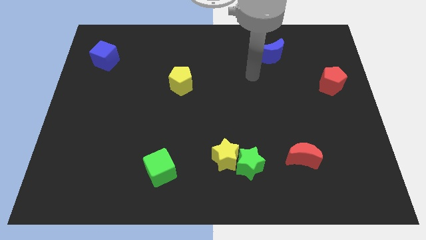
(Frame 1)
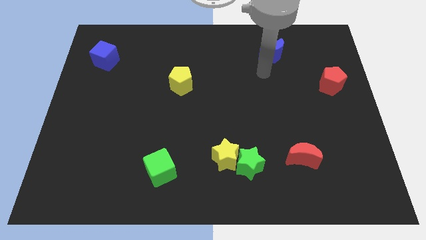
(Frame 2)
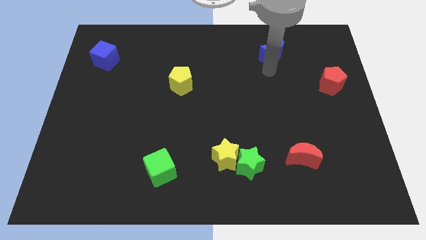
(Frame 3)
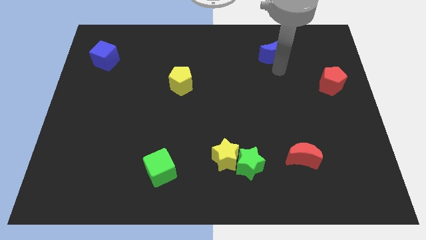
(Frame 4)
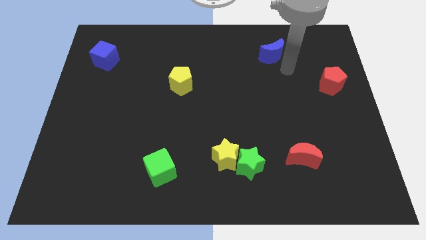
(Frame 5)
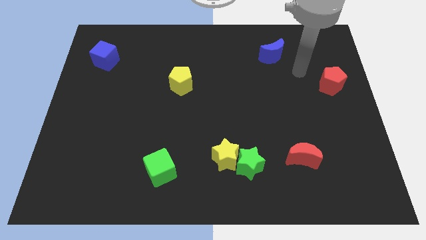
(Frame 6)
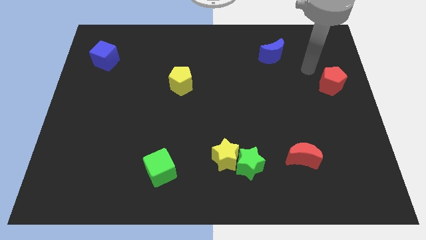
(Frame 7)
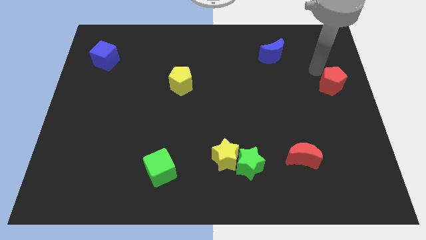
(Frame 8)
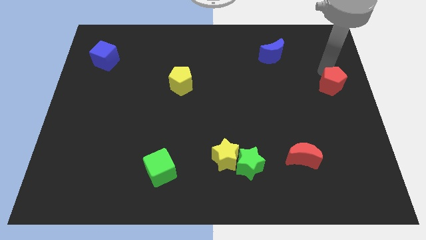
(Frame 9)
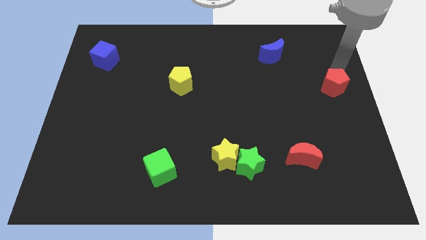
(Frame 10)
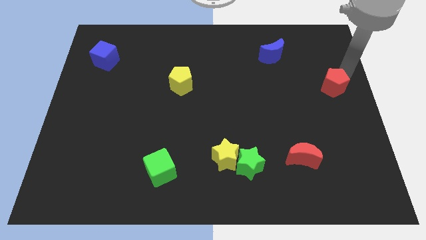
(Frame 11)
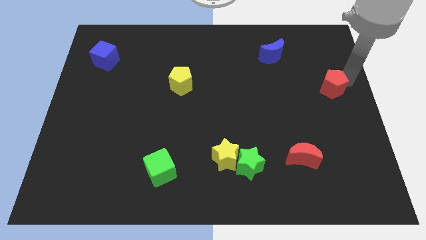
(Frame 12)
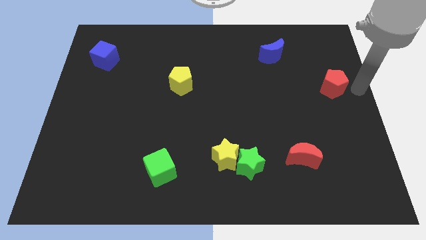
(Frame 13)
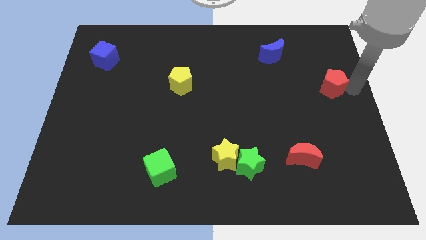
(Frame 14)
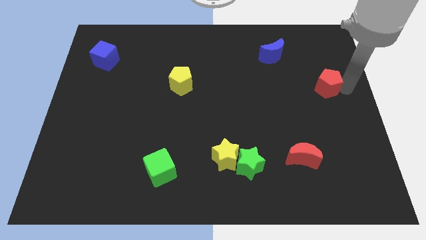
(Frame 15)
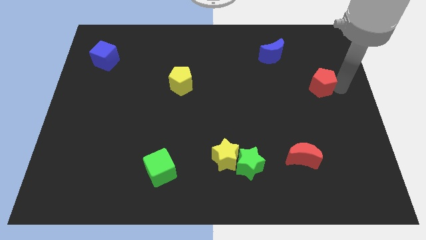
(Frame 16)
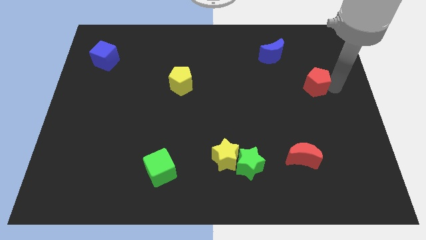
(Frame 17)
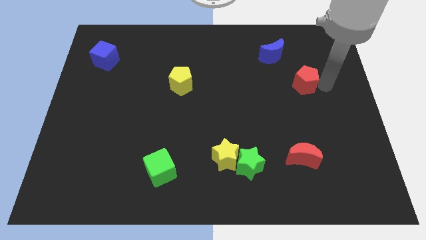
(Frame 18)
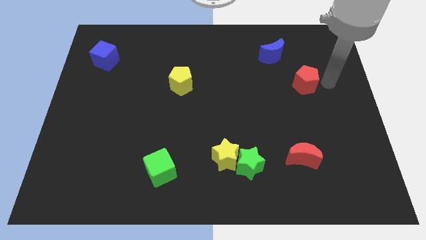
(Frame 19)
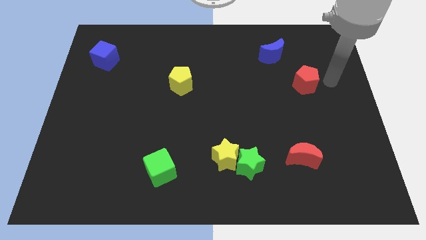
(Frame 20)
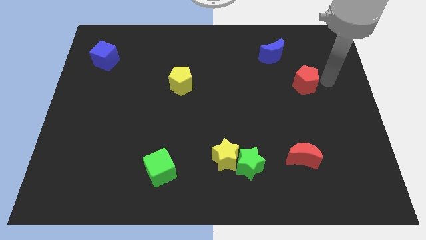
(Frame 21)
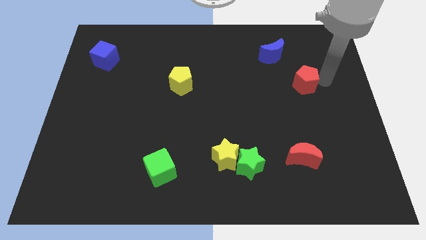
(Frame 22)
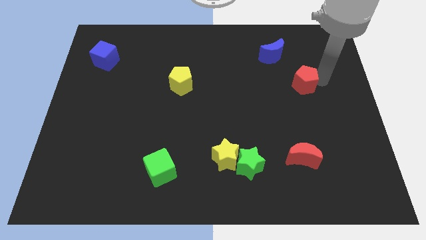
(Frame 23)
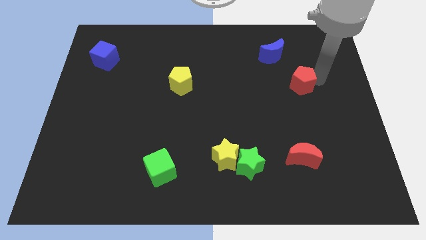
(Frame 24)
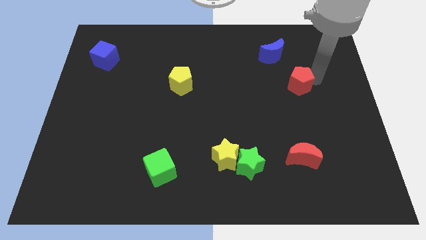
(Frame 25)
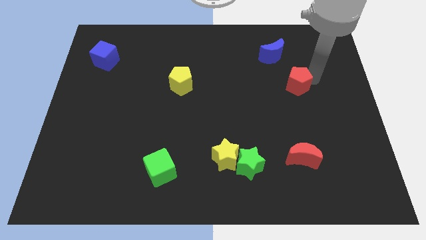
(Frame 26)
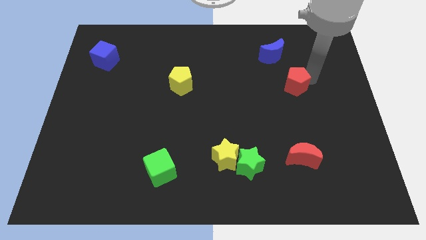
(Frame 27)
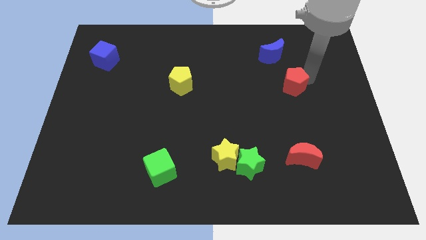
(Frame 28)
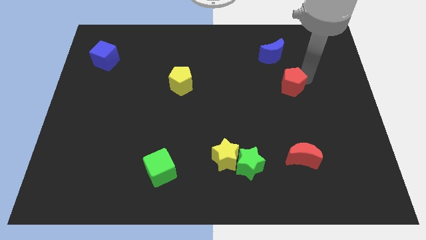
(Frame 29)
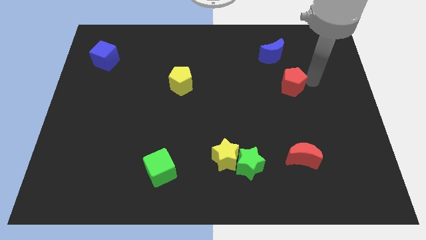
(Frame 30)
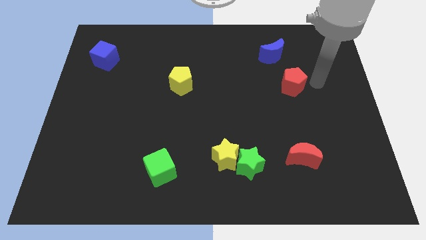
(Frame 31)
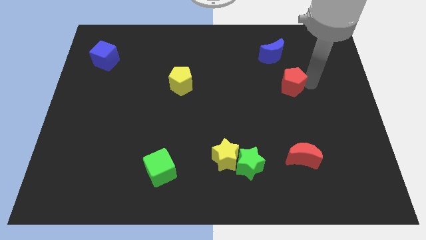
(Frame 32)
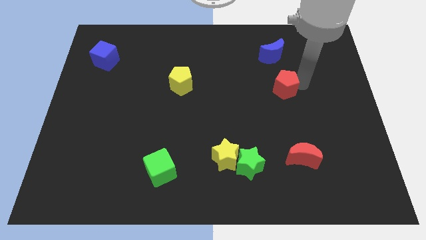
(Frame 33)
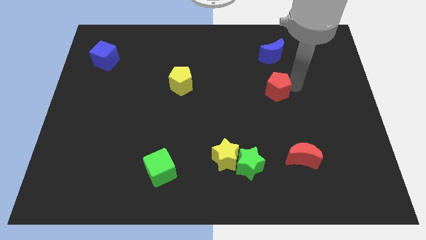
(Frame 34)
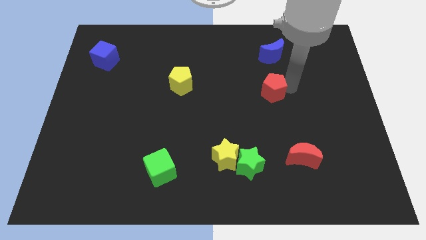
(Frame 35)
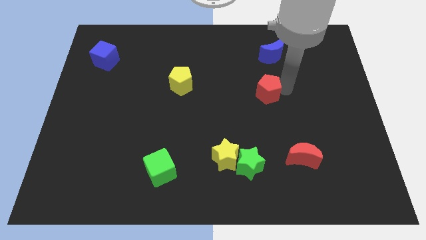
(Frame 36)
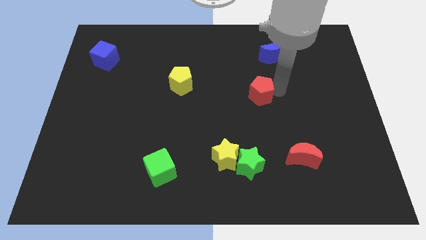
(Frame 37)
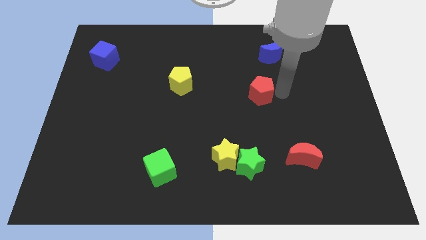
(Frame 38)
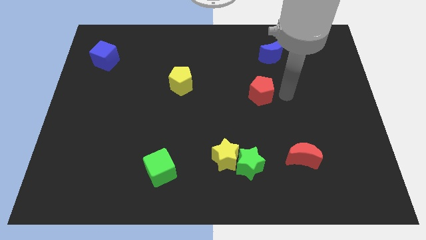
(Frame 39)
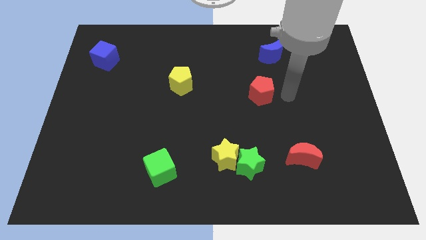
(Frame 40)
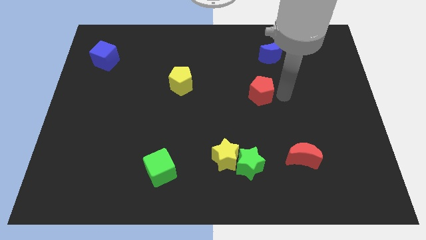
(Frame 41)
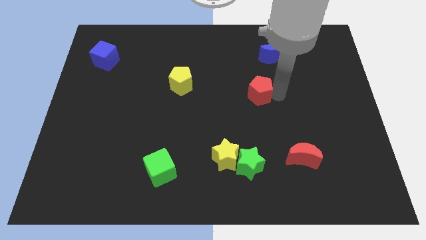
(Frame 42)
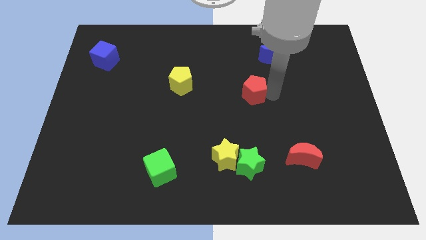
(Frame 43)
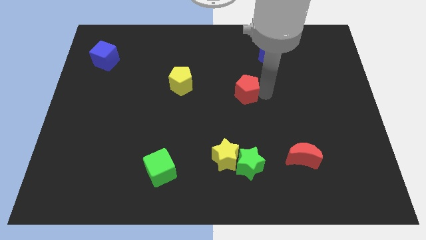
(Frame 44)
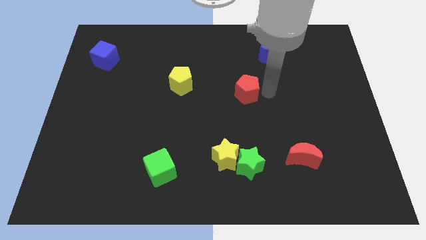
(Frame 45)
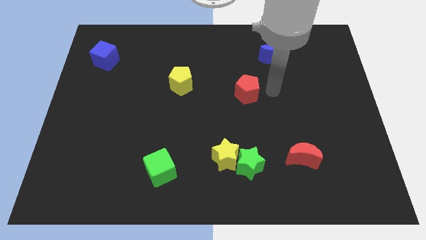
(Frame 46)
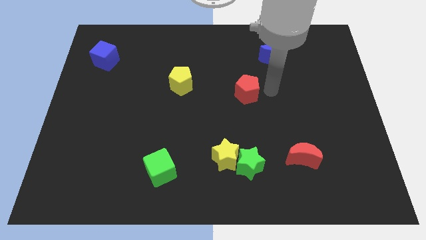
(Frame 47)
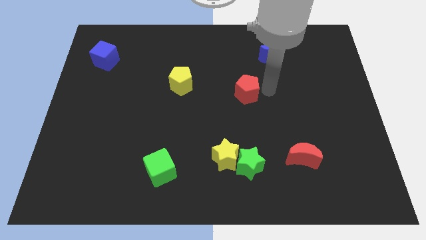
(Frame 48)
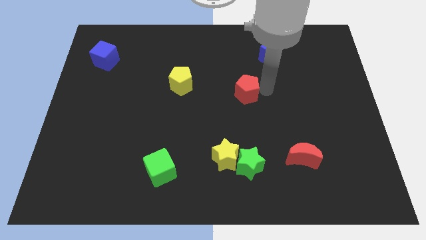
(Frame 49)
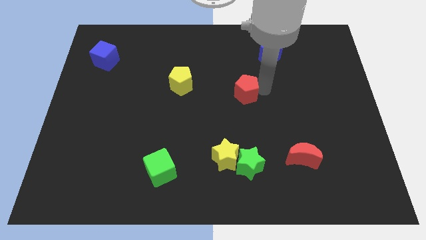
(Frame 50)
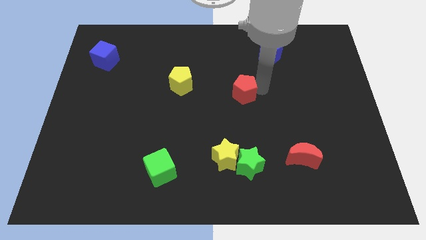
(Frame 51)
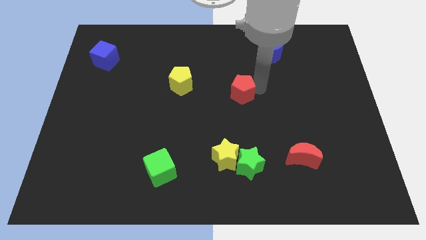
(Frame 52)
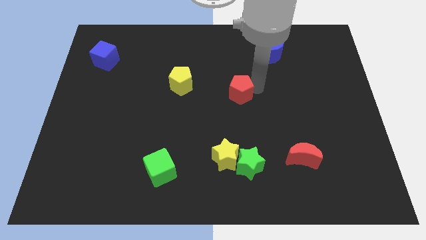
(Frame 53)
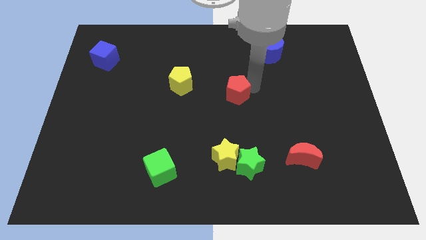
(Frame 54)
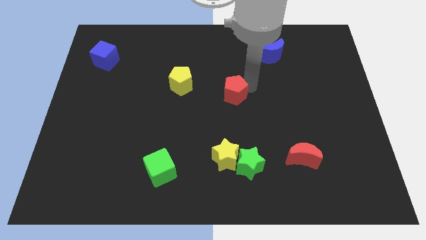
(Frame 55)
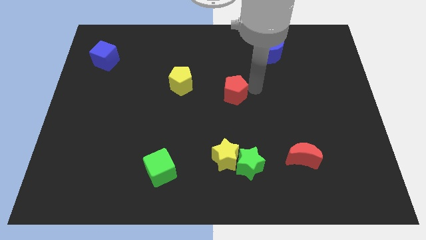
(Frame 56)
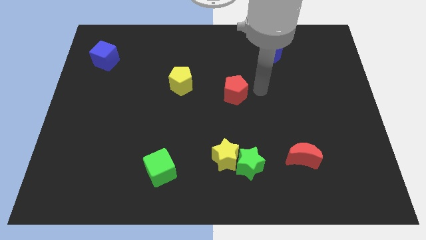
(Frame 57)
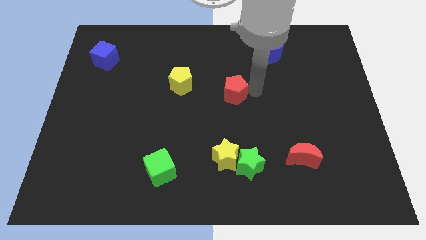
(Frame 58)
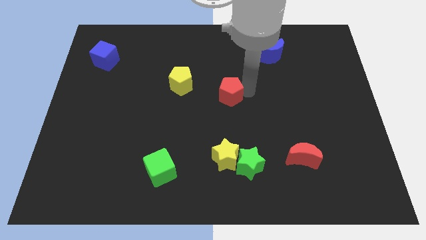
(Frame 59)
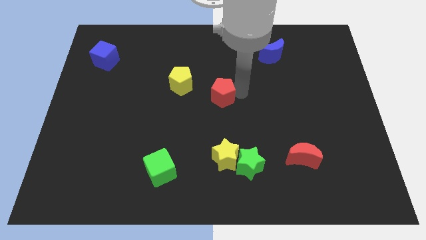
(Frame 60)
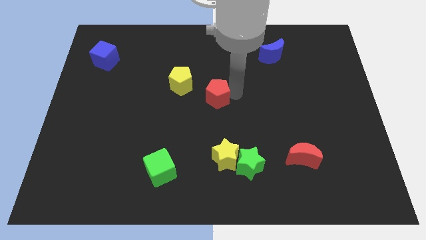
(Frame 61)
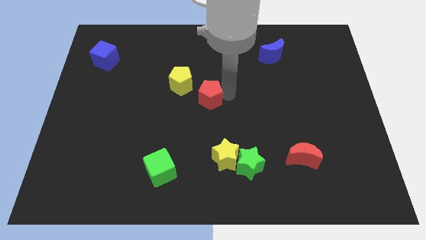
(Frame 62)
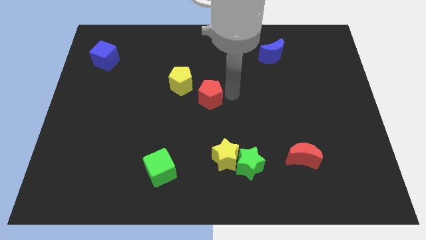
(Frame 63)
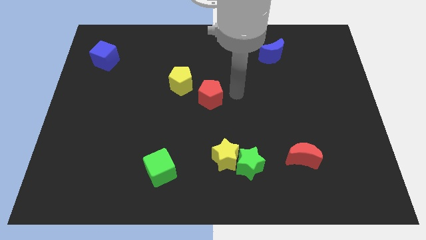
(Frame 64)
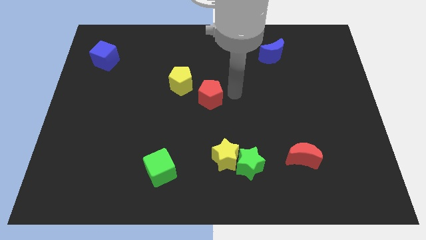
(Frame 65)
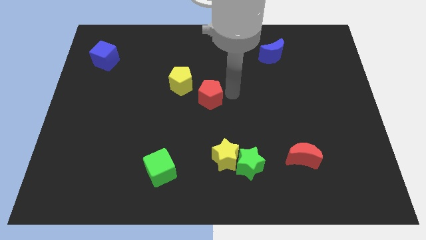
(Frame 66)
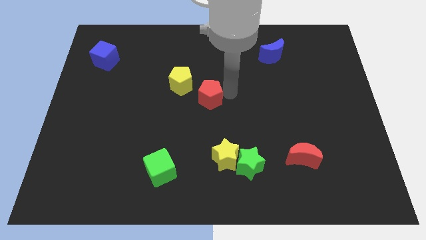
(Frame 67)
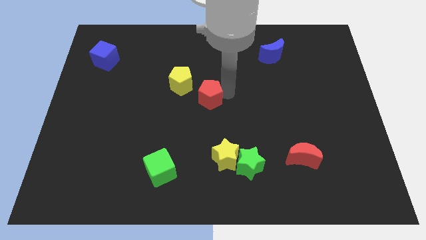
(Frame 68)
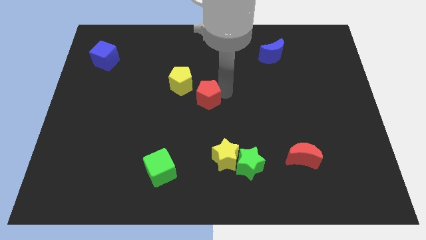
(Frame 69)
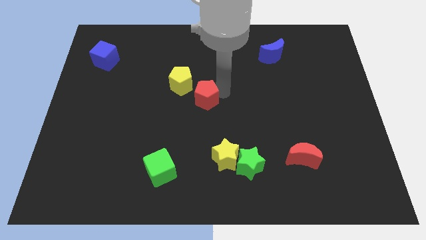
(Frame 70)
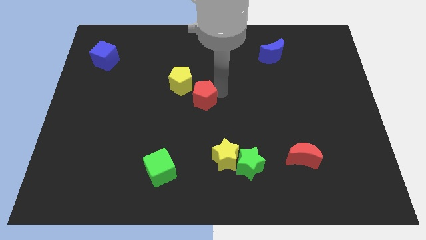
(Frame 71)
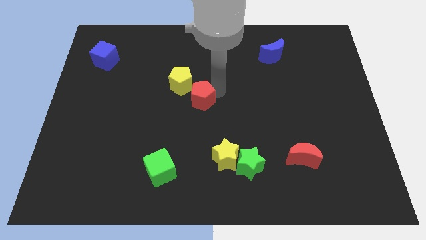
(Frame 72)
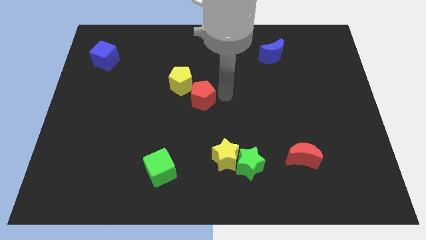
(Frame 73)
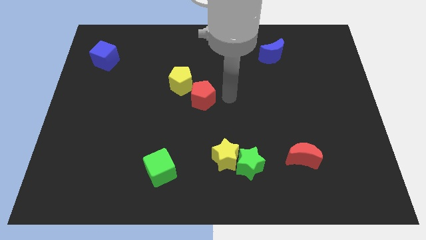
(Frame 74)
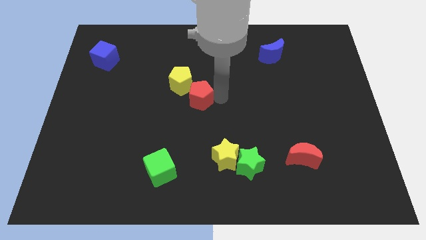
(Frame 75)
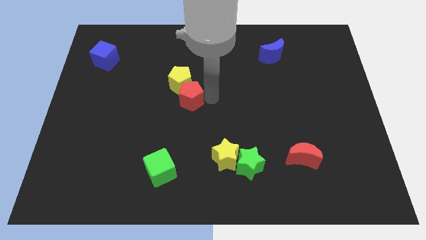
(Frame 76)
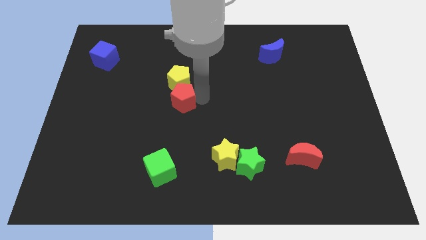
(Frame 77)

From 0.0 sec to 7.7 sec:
put the red pentagon diagonally down and to the left of the yellow pentagon

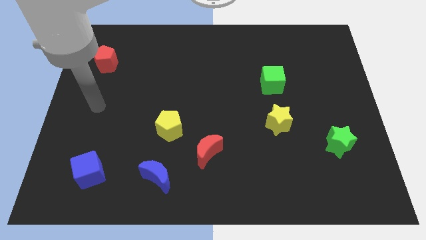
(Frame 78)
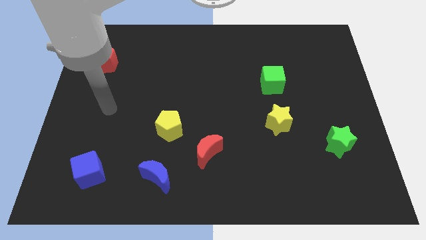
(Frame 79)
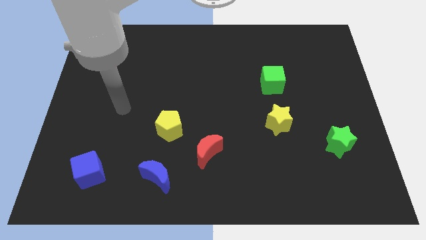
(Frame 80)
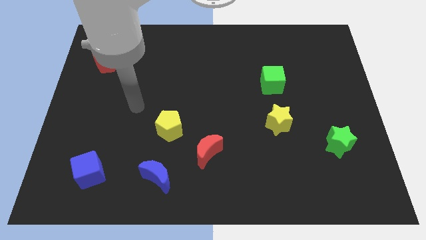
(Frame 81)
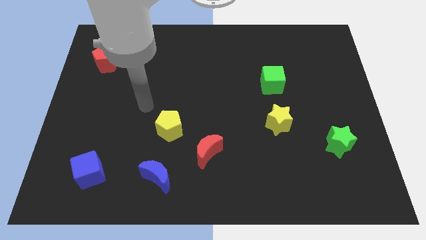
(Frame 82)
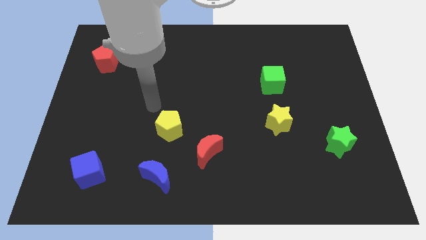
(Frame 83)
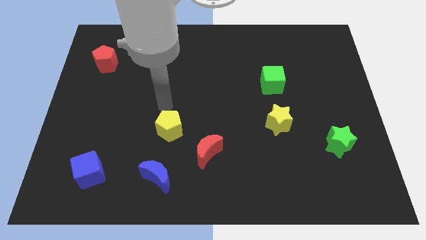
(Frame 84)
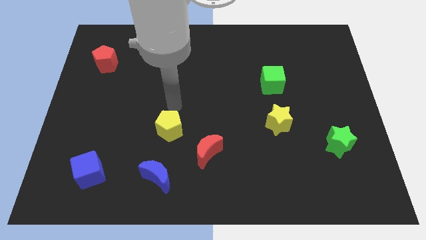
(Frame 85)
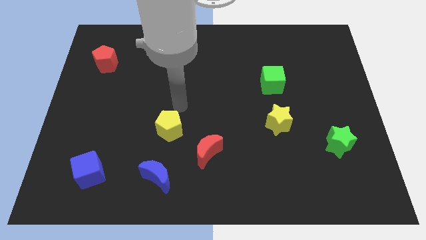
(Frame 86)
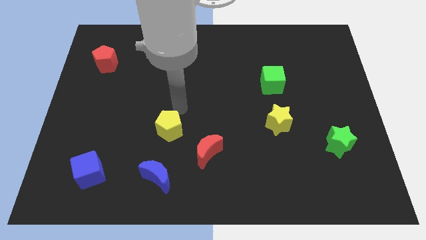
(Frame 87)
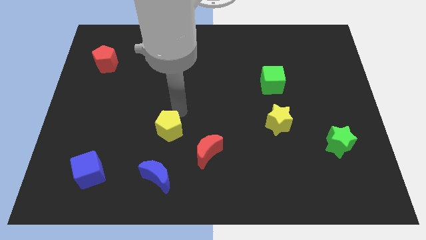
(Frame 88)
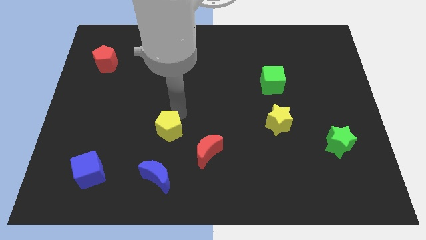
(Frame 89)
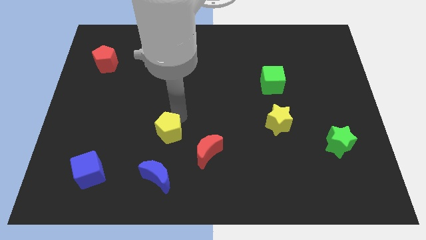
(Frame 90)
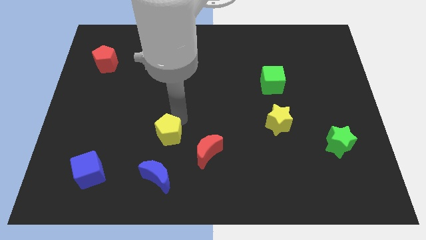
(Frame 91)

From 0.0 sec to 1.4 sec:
slide the yellow pentagon left of the red moon
